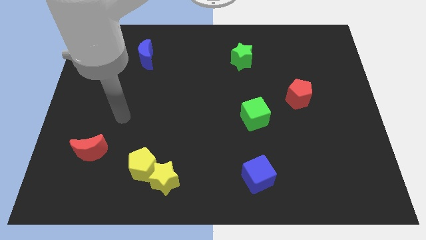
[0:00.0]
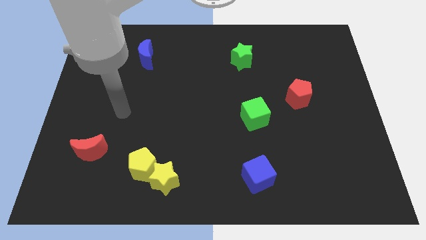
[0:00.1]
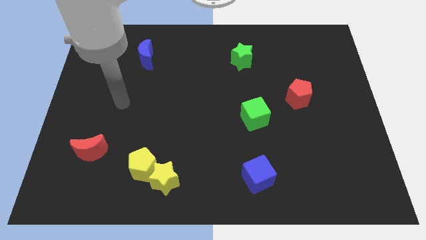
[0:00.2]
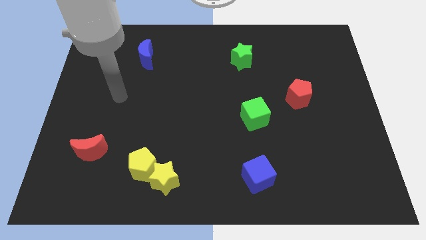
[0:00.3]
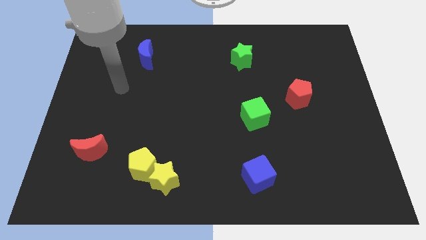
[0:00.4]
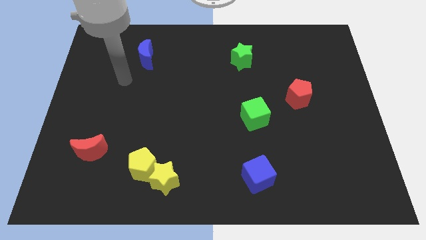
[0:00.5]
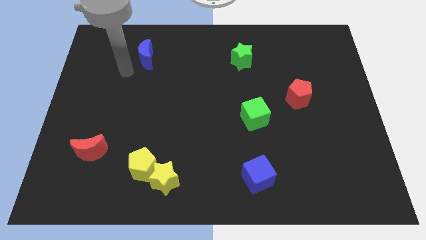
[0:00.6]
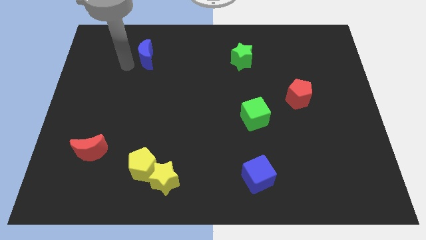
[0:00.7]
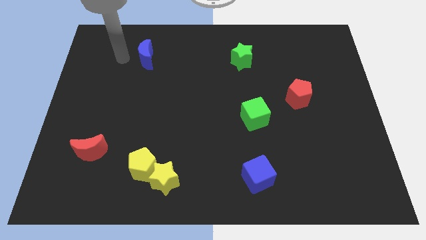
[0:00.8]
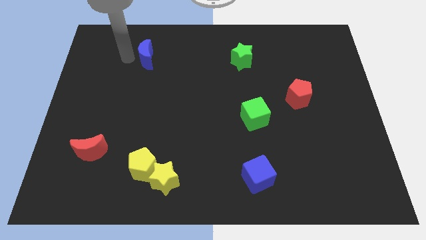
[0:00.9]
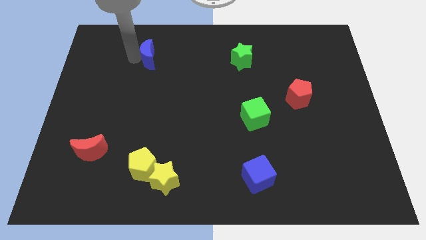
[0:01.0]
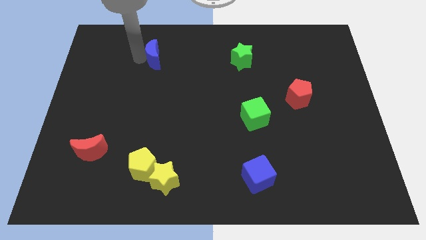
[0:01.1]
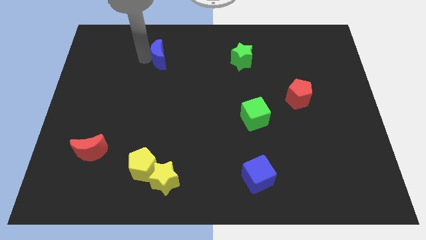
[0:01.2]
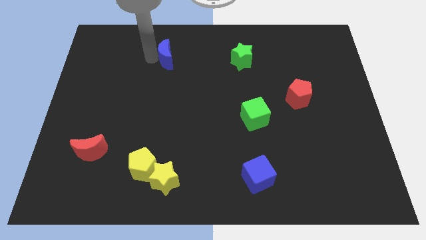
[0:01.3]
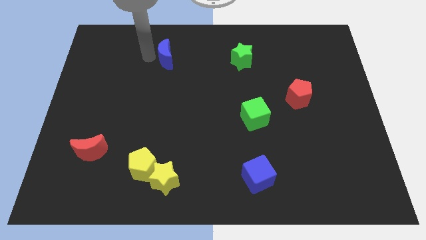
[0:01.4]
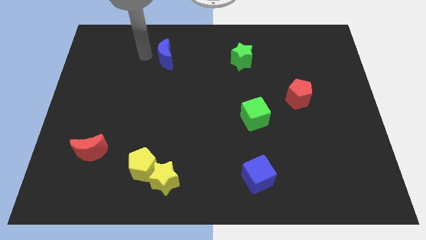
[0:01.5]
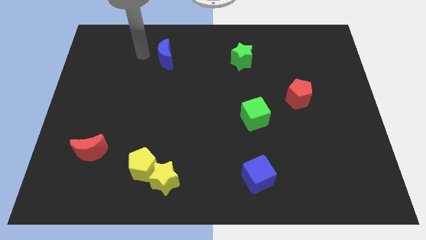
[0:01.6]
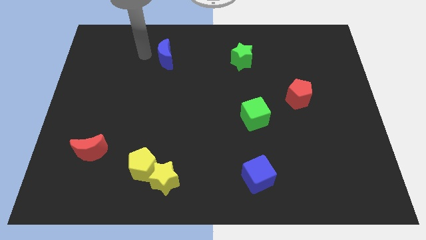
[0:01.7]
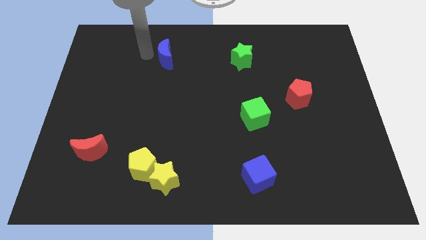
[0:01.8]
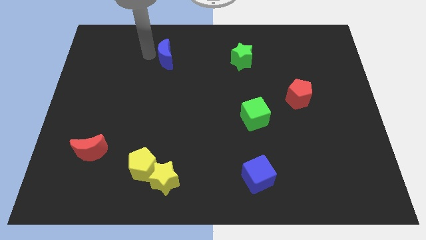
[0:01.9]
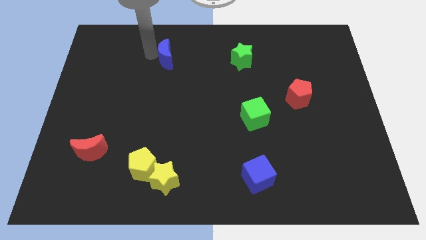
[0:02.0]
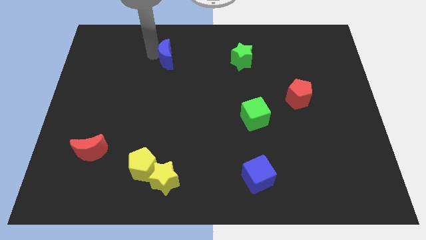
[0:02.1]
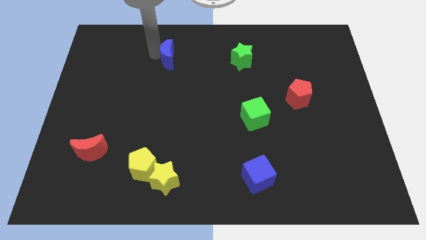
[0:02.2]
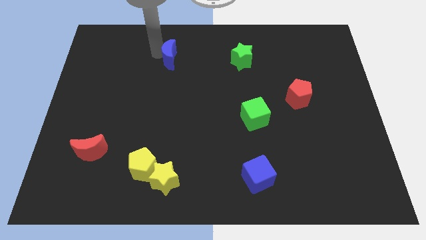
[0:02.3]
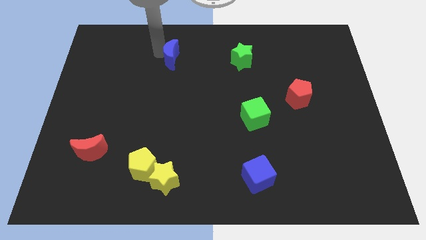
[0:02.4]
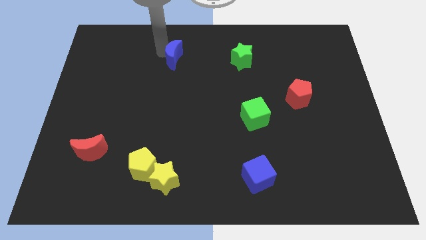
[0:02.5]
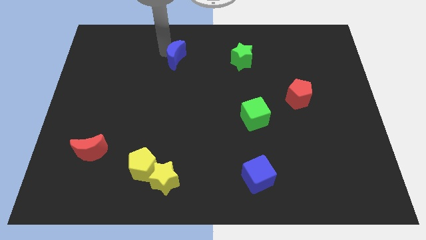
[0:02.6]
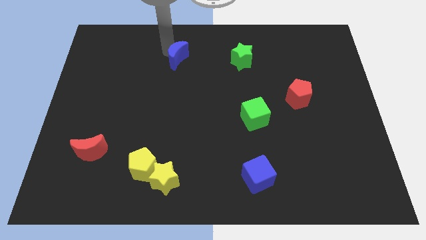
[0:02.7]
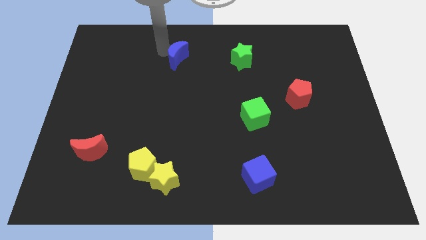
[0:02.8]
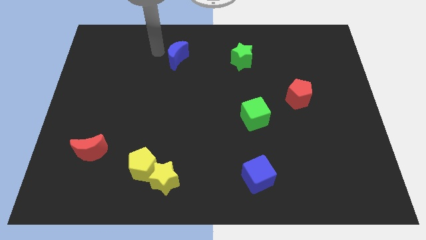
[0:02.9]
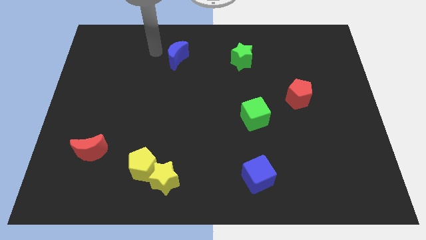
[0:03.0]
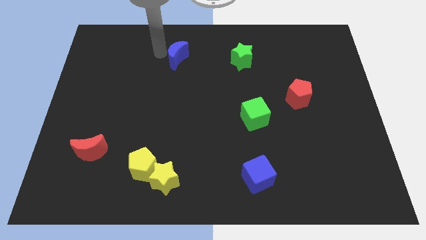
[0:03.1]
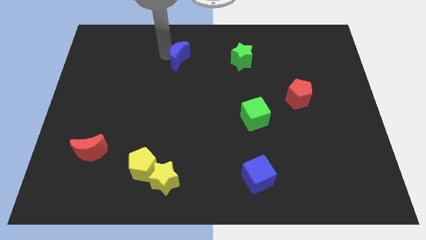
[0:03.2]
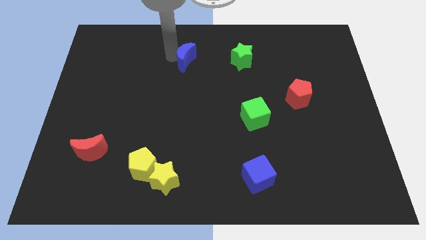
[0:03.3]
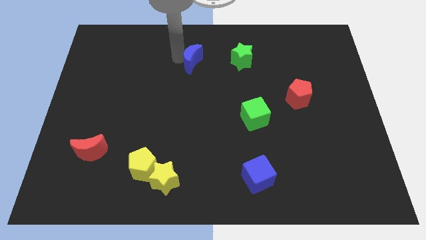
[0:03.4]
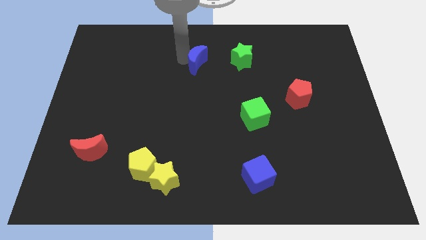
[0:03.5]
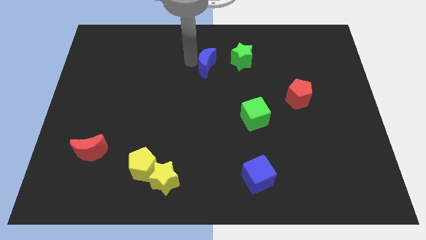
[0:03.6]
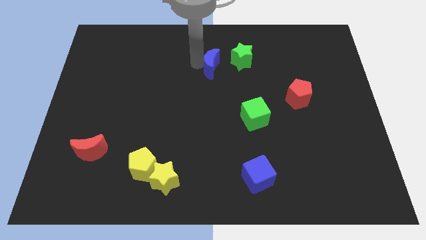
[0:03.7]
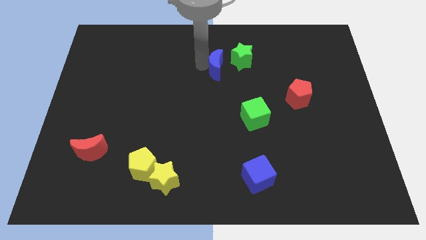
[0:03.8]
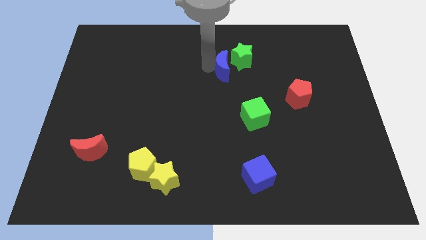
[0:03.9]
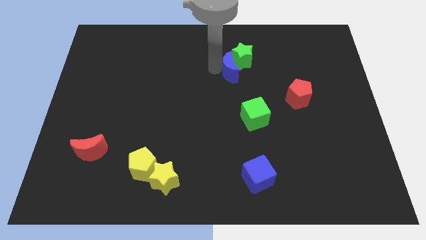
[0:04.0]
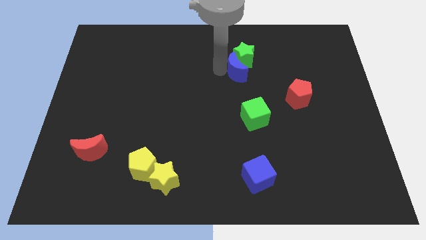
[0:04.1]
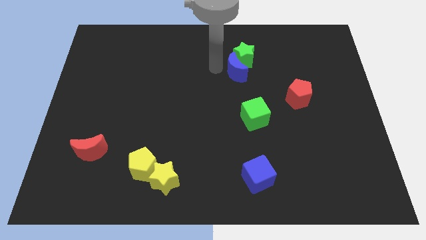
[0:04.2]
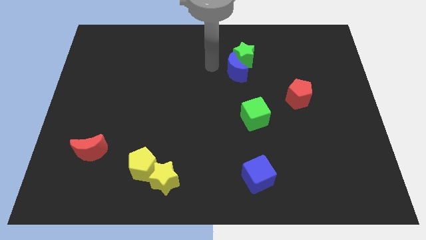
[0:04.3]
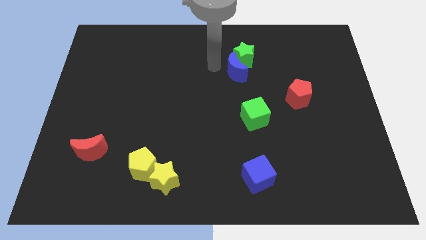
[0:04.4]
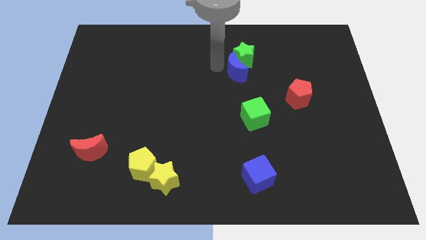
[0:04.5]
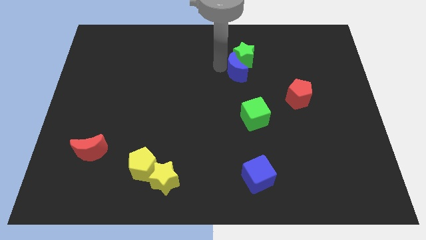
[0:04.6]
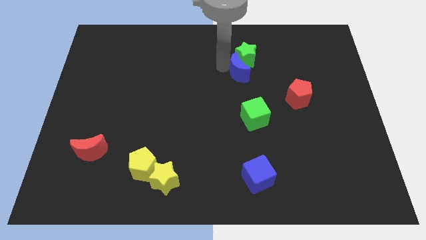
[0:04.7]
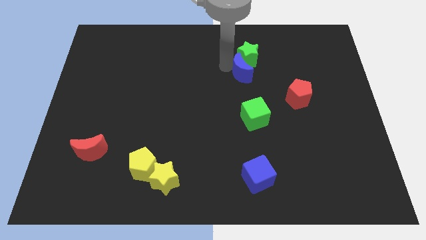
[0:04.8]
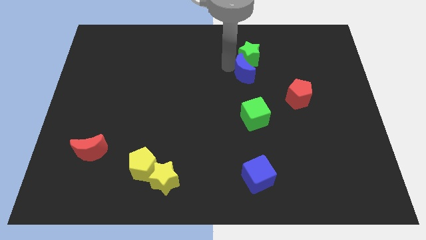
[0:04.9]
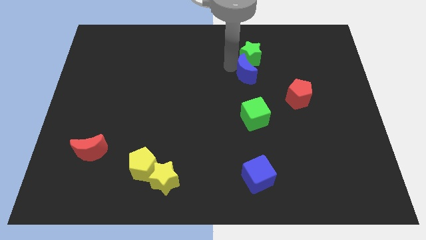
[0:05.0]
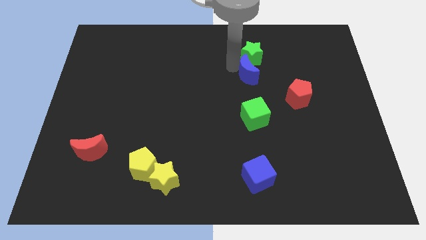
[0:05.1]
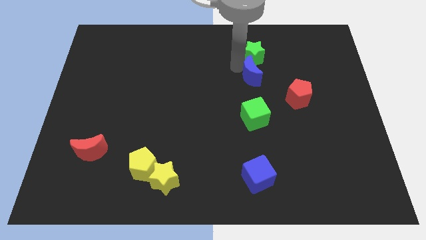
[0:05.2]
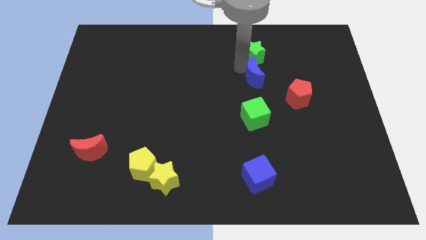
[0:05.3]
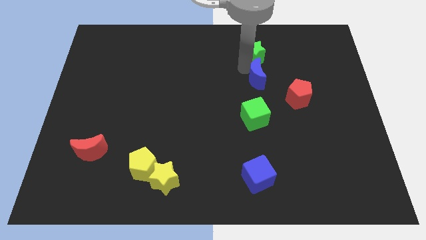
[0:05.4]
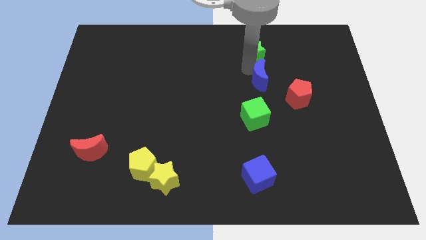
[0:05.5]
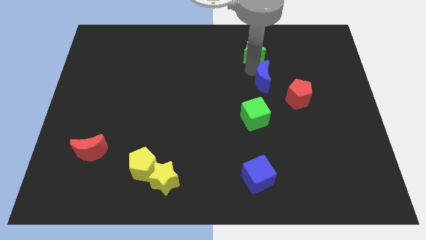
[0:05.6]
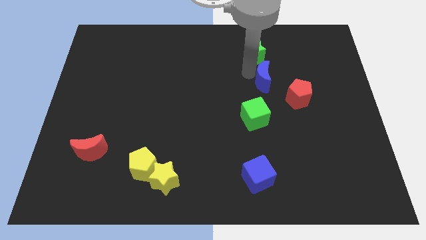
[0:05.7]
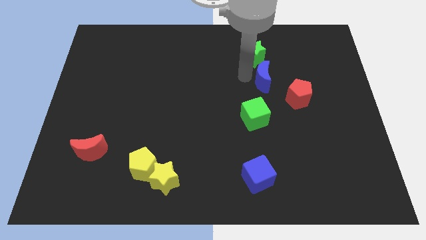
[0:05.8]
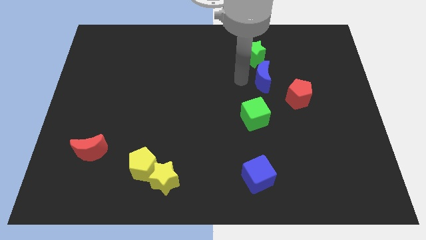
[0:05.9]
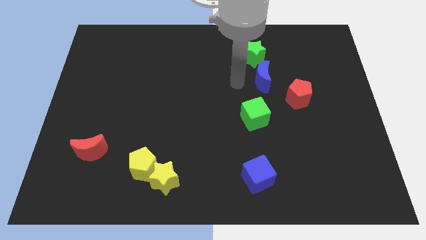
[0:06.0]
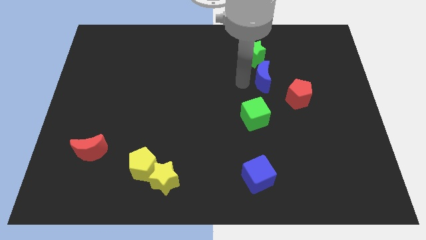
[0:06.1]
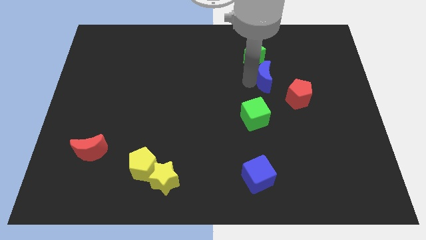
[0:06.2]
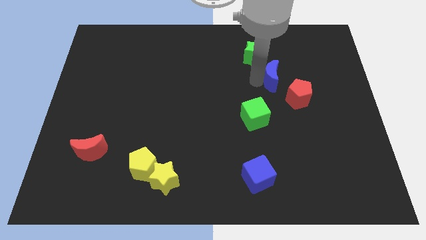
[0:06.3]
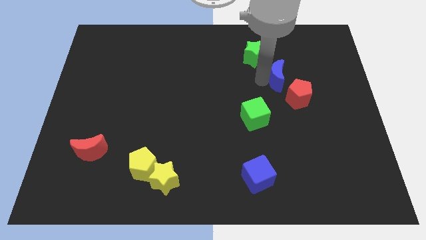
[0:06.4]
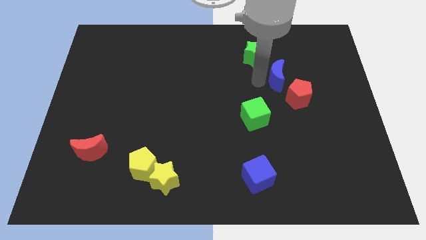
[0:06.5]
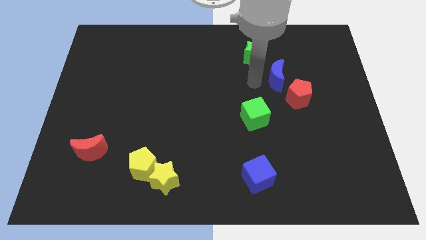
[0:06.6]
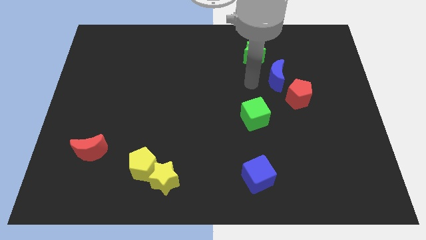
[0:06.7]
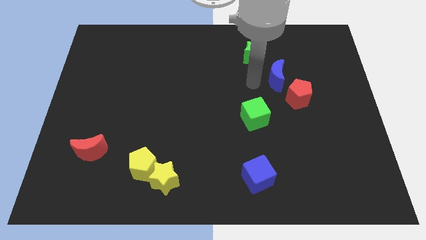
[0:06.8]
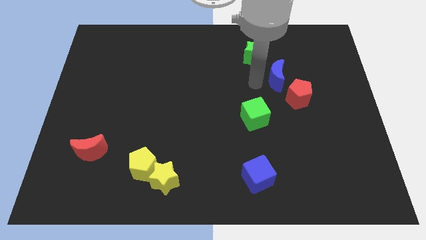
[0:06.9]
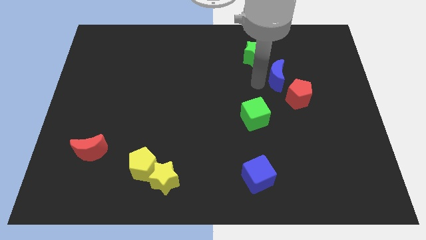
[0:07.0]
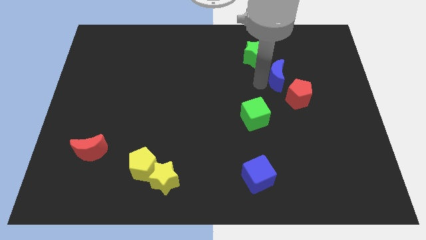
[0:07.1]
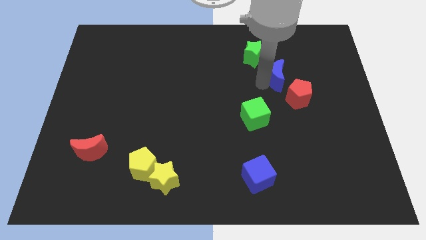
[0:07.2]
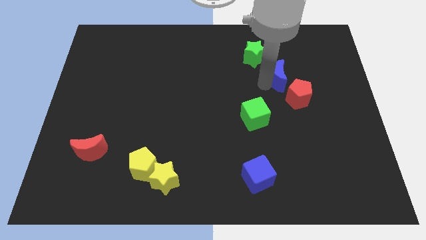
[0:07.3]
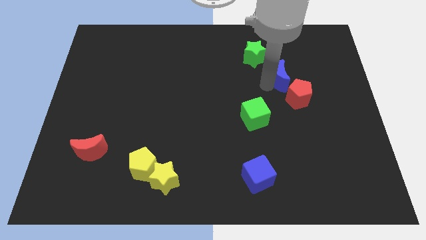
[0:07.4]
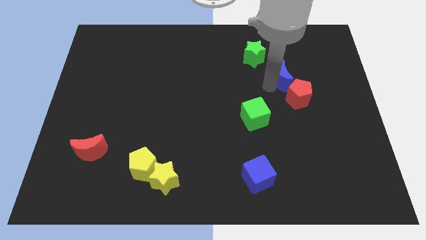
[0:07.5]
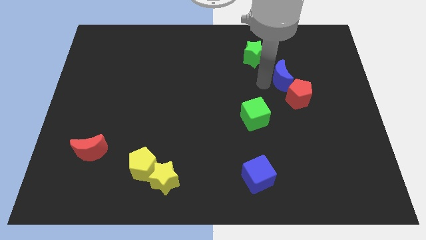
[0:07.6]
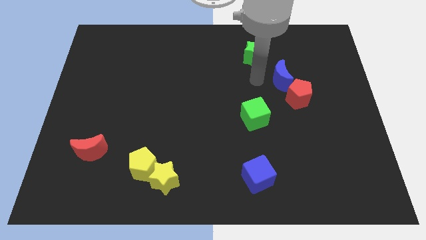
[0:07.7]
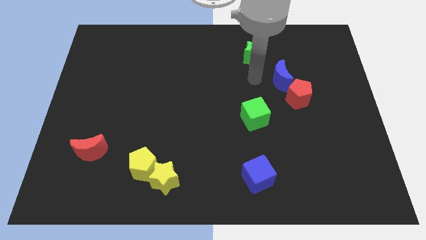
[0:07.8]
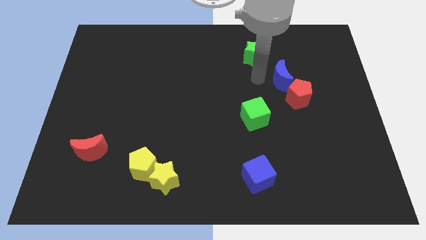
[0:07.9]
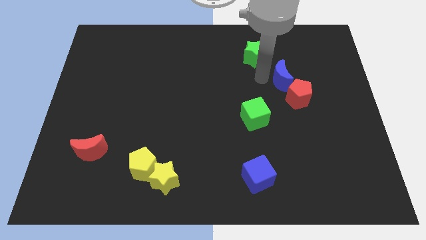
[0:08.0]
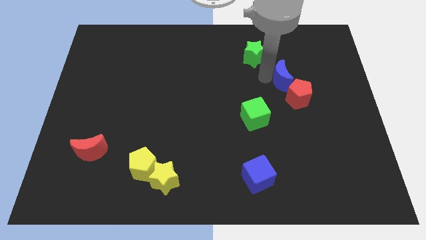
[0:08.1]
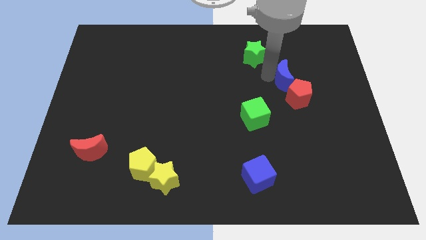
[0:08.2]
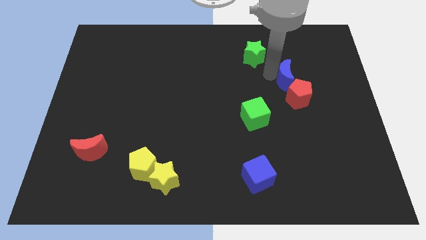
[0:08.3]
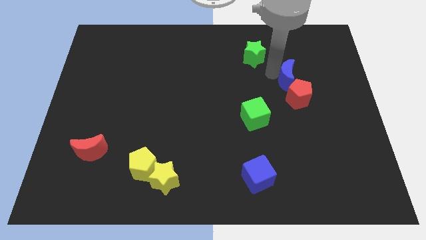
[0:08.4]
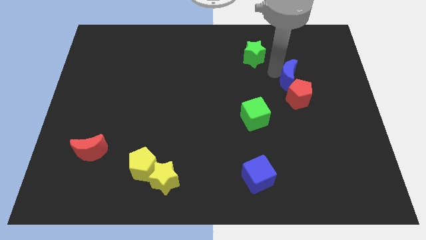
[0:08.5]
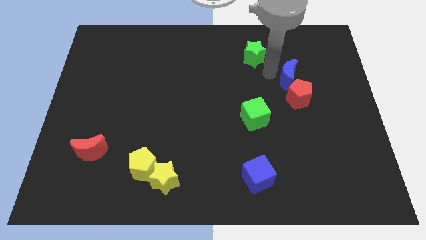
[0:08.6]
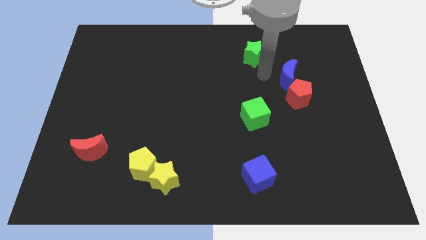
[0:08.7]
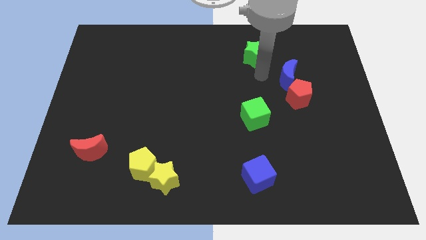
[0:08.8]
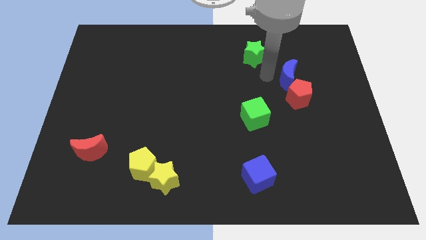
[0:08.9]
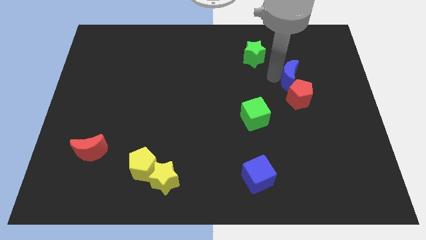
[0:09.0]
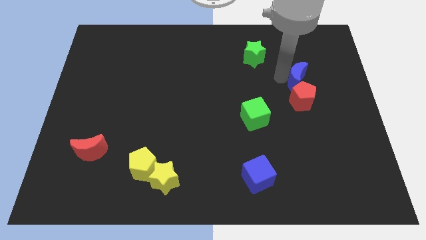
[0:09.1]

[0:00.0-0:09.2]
move the blue moon to the top right side of the red pentagon
